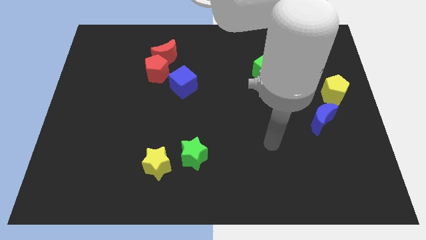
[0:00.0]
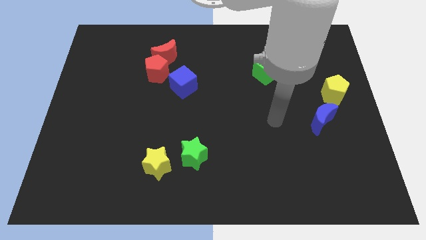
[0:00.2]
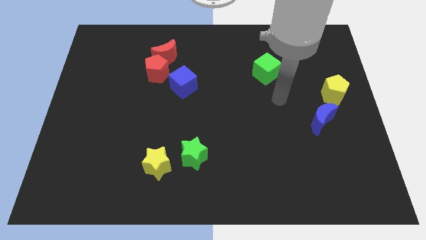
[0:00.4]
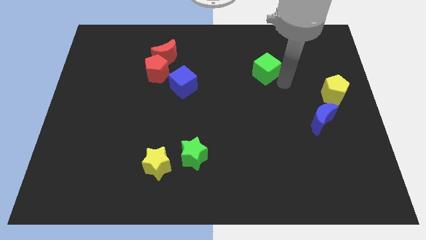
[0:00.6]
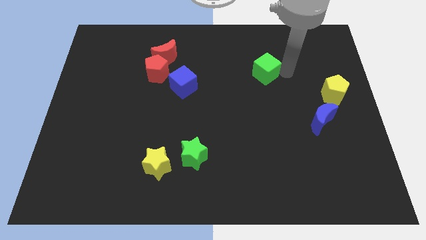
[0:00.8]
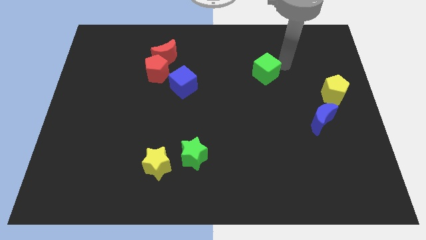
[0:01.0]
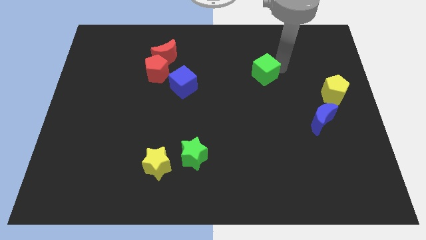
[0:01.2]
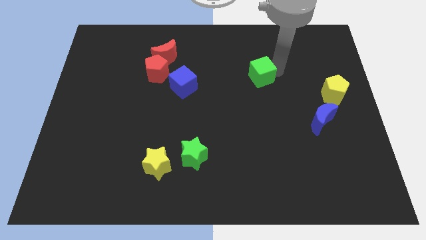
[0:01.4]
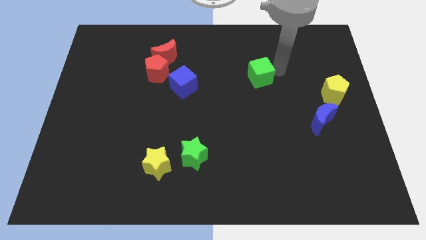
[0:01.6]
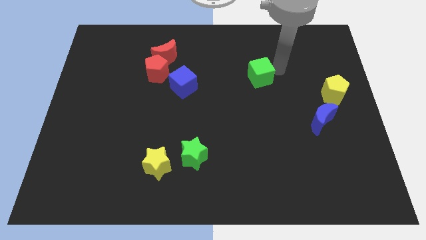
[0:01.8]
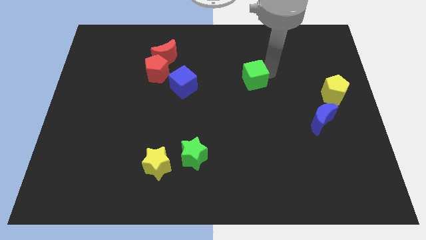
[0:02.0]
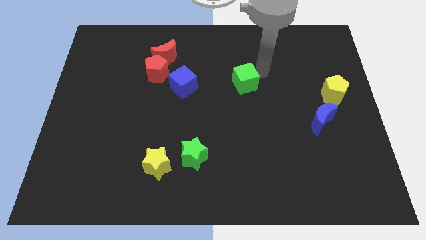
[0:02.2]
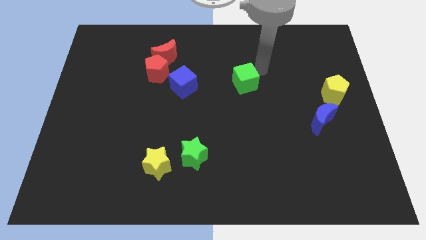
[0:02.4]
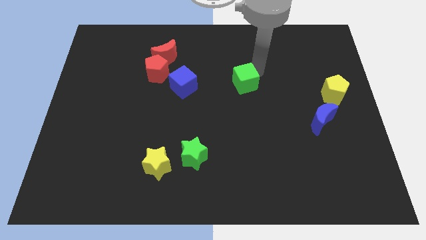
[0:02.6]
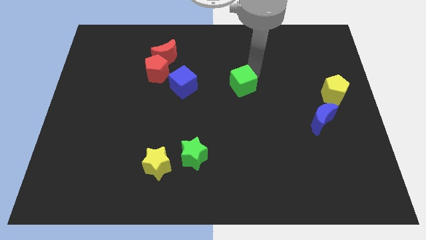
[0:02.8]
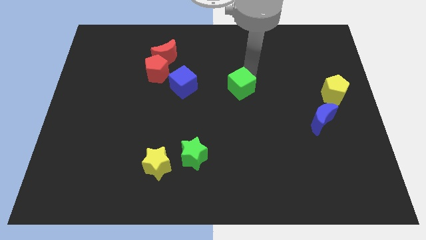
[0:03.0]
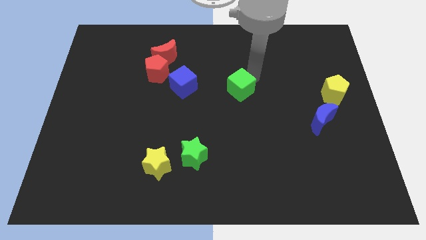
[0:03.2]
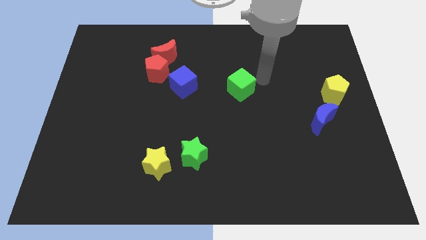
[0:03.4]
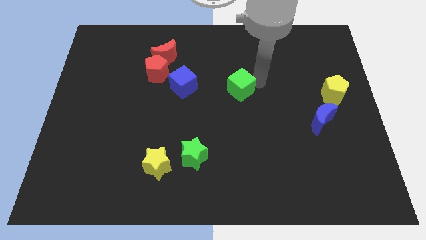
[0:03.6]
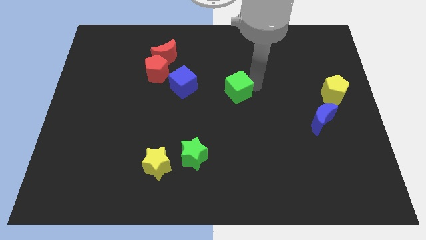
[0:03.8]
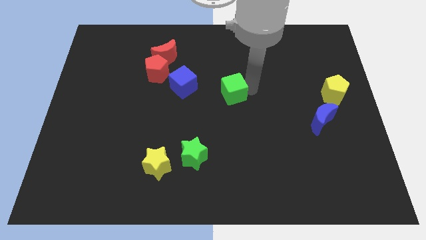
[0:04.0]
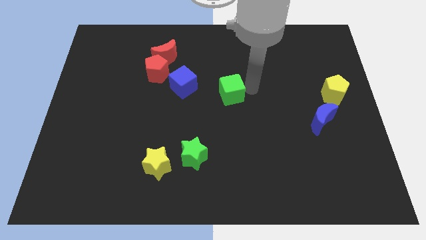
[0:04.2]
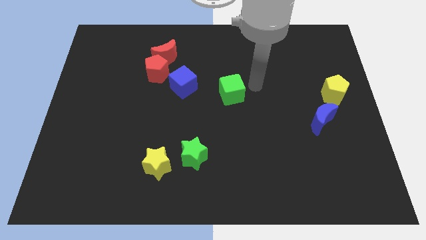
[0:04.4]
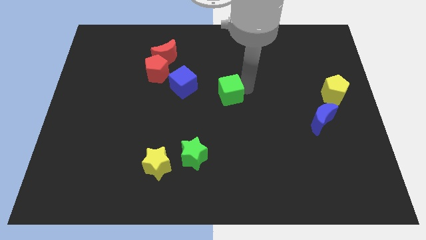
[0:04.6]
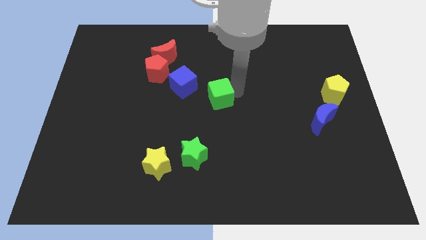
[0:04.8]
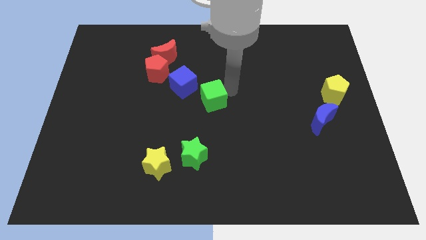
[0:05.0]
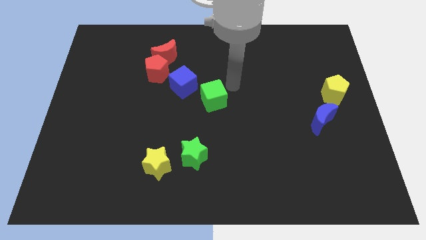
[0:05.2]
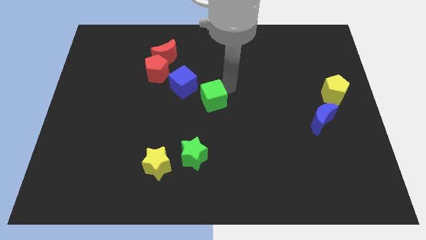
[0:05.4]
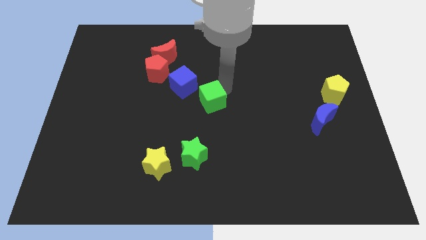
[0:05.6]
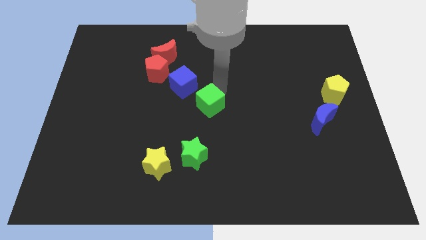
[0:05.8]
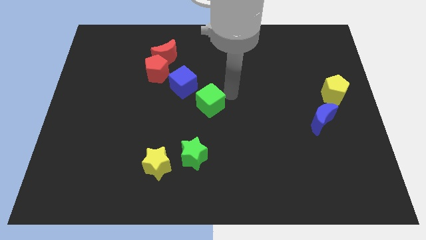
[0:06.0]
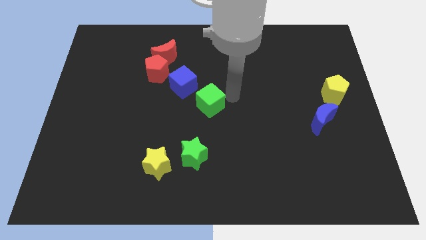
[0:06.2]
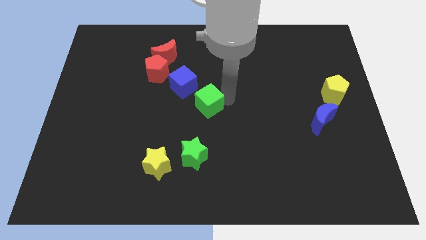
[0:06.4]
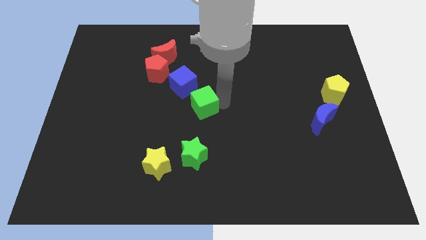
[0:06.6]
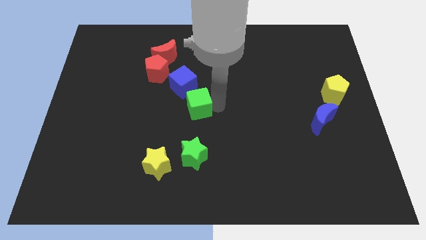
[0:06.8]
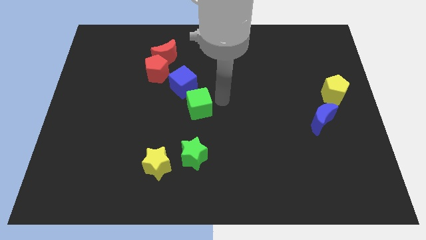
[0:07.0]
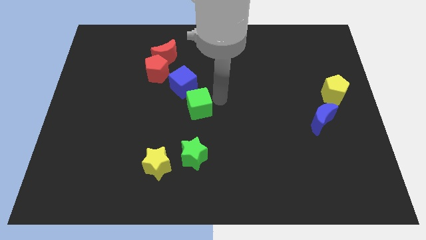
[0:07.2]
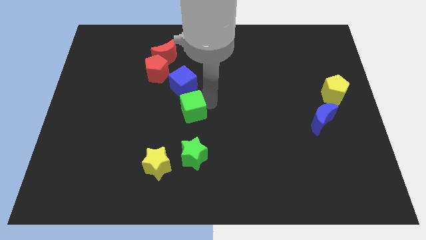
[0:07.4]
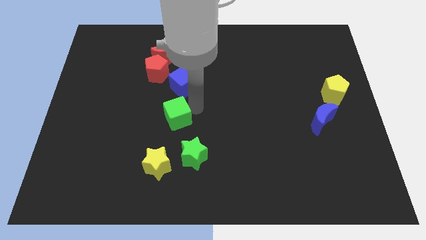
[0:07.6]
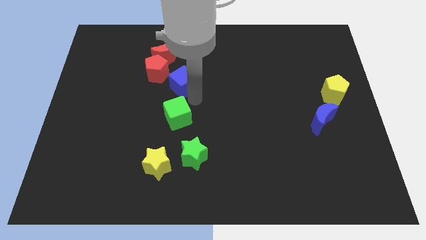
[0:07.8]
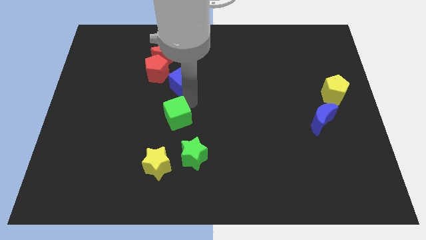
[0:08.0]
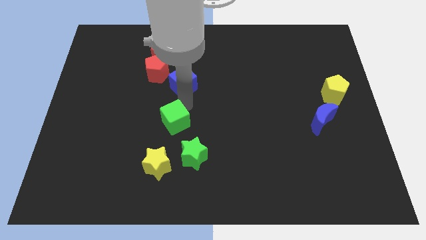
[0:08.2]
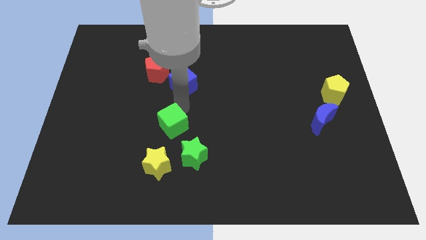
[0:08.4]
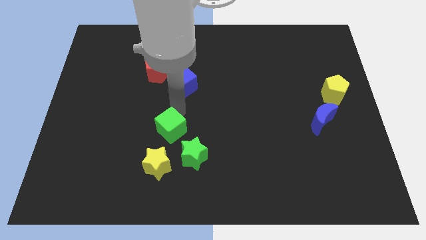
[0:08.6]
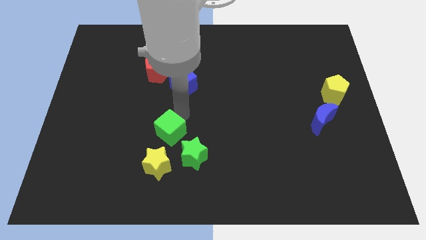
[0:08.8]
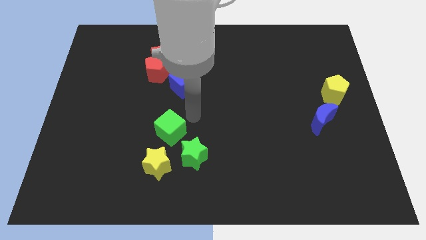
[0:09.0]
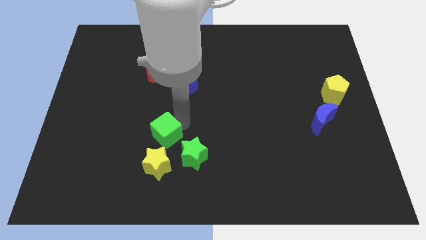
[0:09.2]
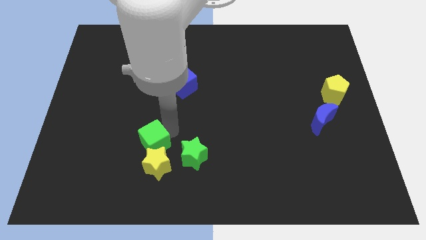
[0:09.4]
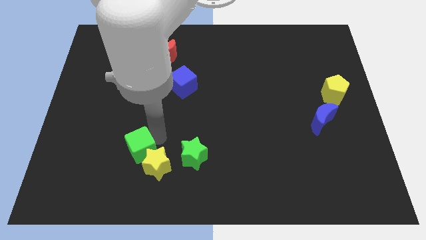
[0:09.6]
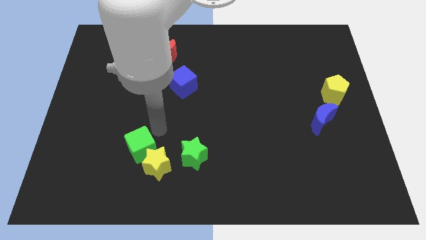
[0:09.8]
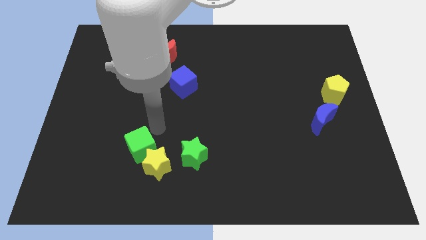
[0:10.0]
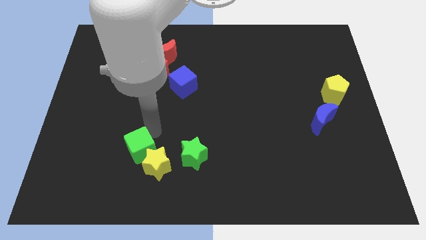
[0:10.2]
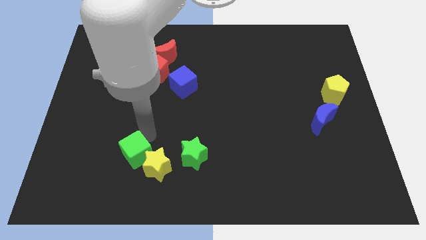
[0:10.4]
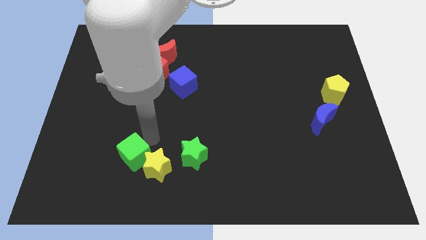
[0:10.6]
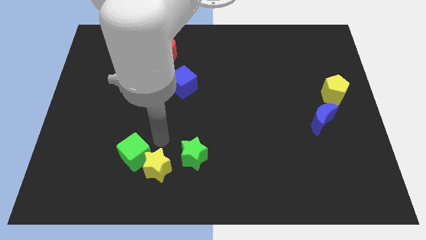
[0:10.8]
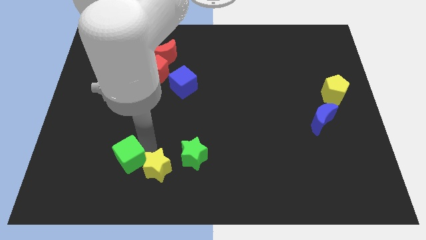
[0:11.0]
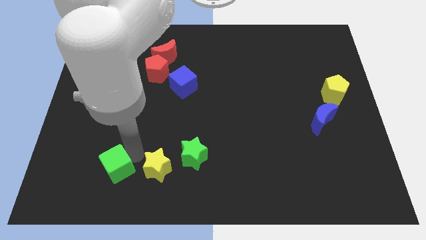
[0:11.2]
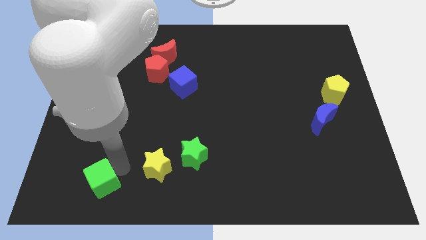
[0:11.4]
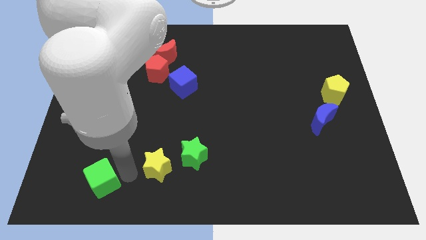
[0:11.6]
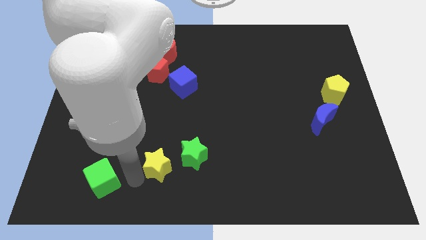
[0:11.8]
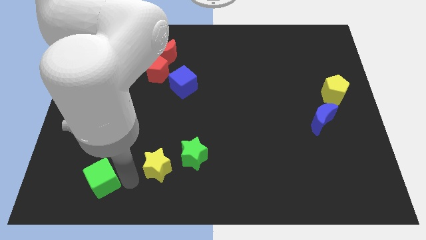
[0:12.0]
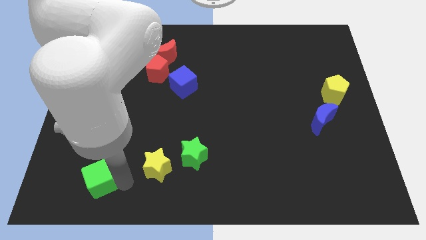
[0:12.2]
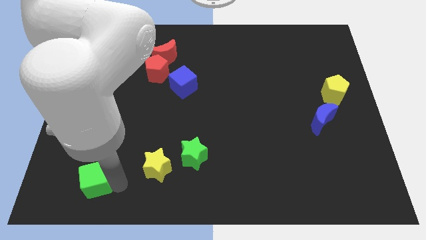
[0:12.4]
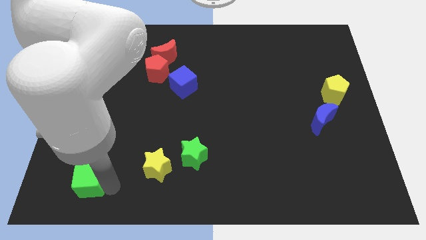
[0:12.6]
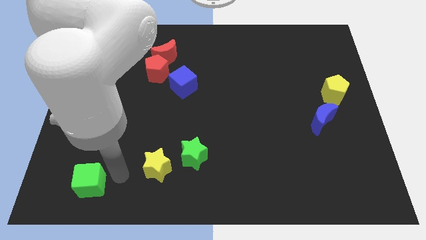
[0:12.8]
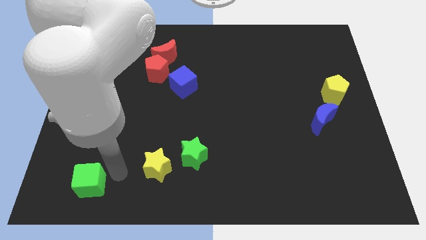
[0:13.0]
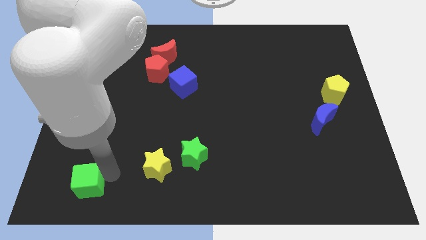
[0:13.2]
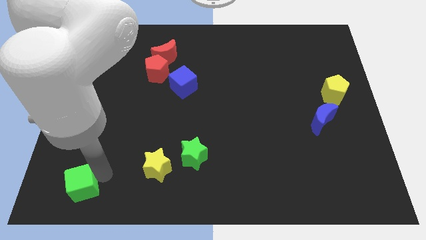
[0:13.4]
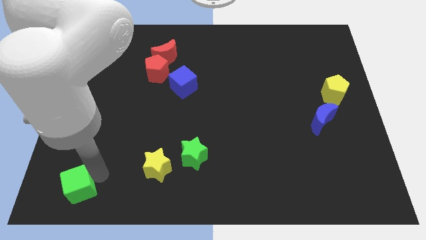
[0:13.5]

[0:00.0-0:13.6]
put the green cube to the bottom left
